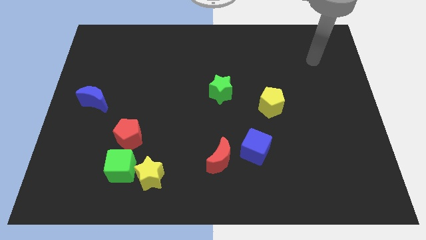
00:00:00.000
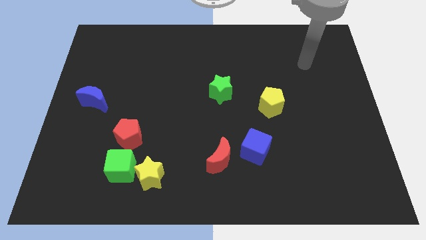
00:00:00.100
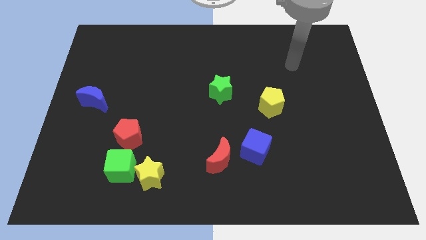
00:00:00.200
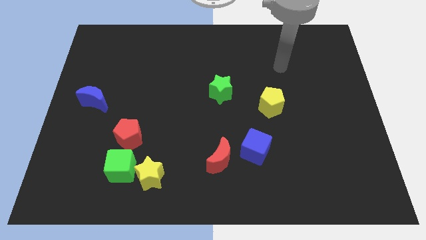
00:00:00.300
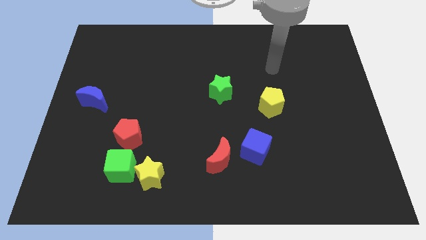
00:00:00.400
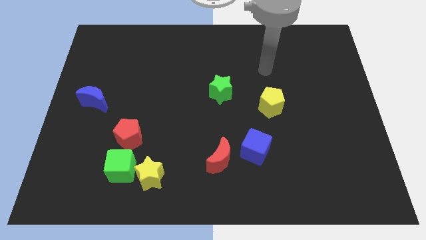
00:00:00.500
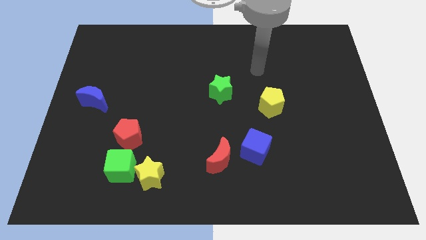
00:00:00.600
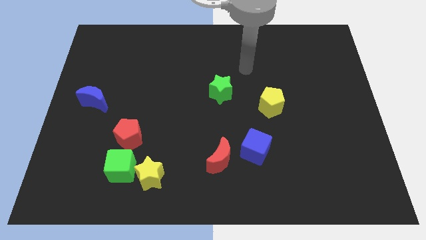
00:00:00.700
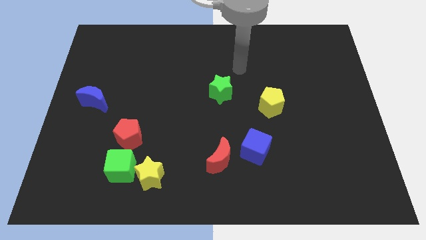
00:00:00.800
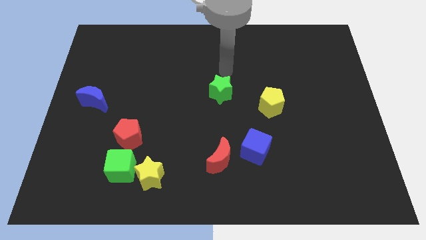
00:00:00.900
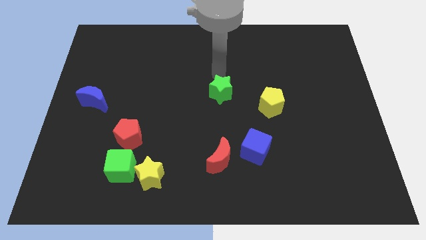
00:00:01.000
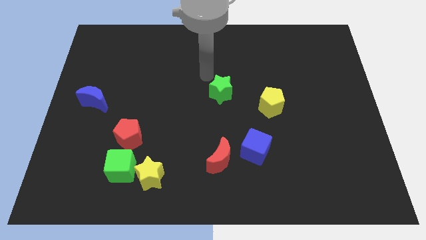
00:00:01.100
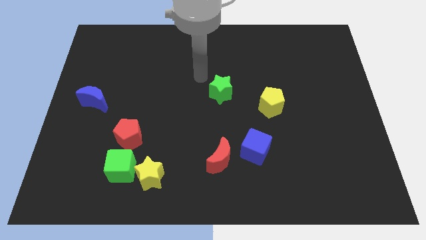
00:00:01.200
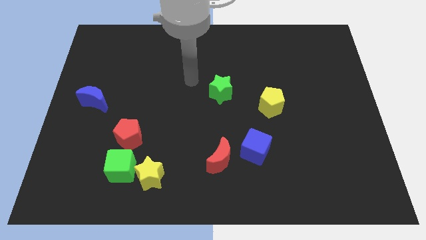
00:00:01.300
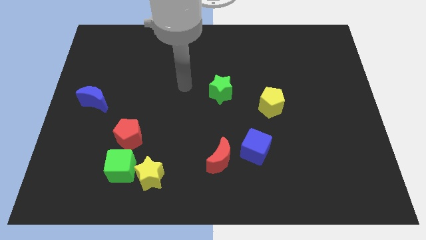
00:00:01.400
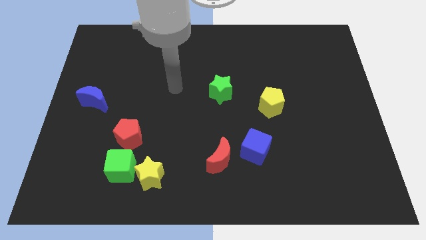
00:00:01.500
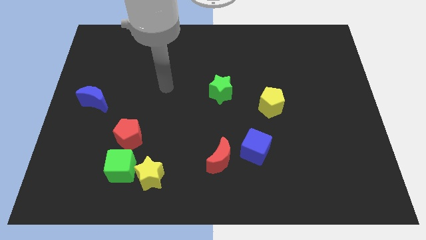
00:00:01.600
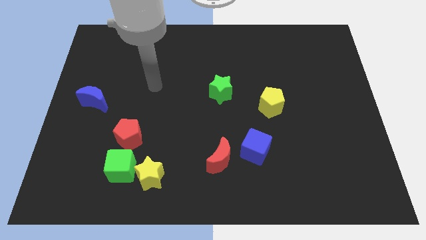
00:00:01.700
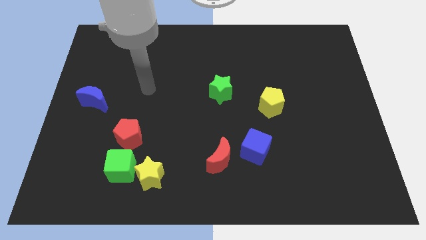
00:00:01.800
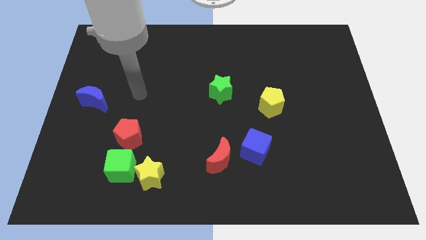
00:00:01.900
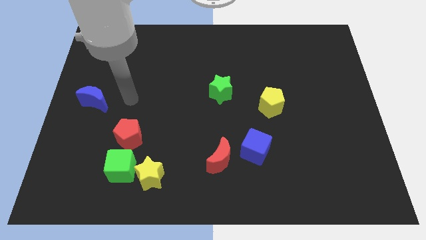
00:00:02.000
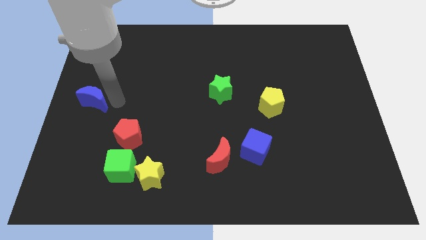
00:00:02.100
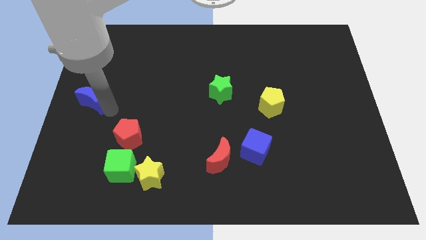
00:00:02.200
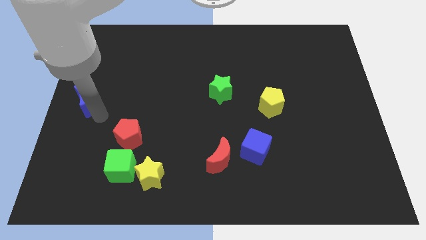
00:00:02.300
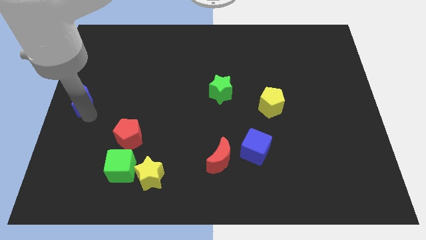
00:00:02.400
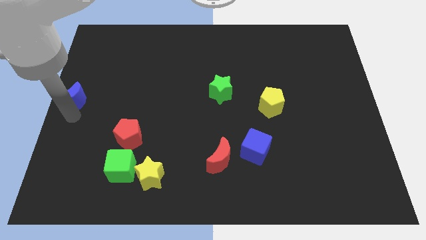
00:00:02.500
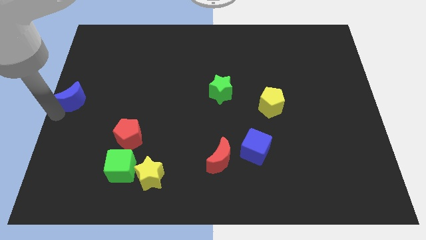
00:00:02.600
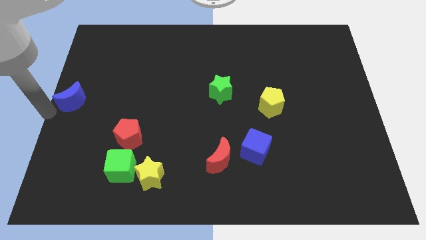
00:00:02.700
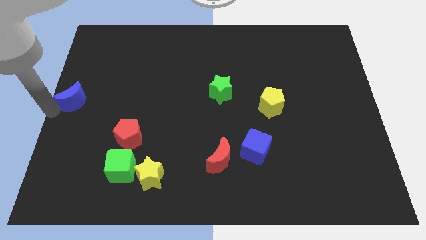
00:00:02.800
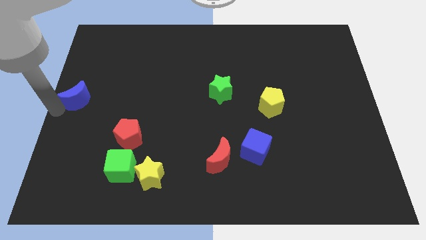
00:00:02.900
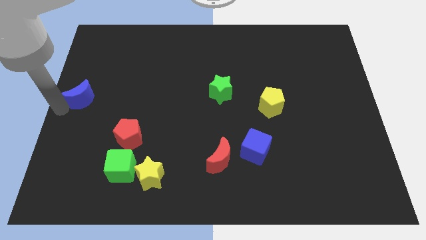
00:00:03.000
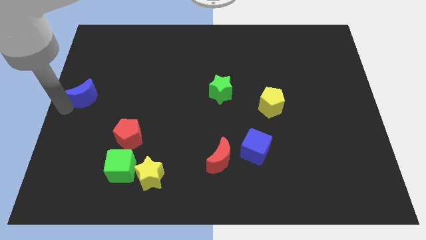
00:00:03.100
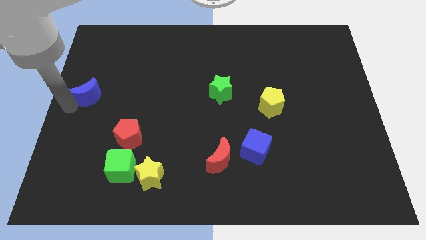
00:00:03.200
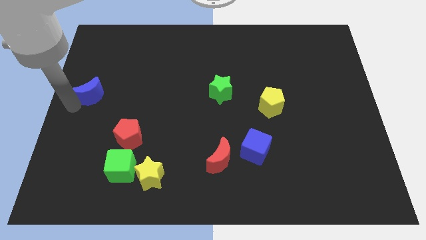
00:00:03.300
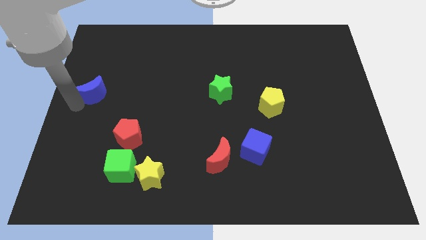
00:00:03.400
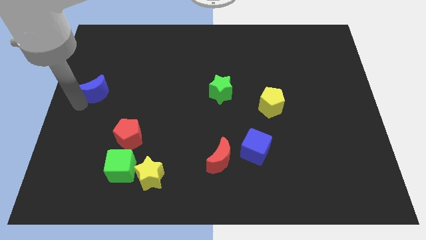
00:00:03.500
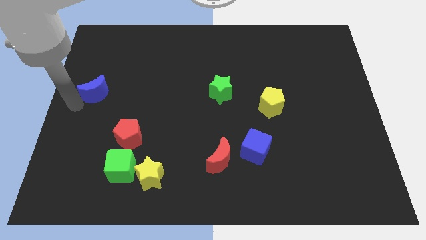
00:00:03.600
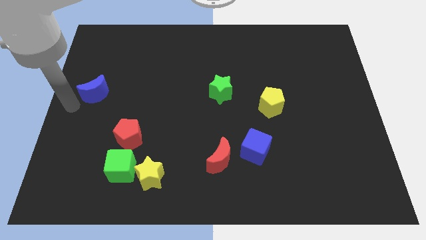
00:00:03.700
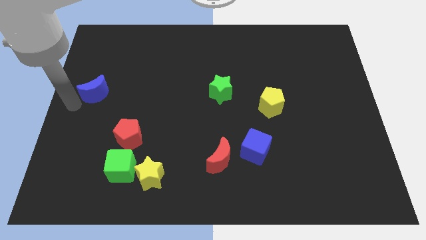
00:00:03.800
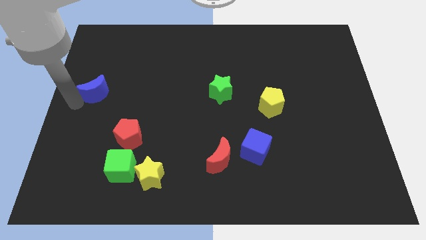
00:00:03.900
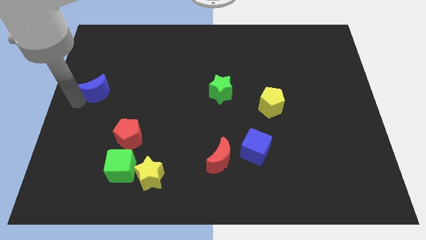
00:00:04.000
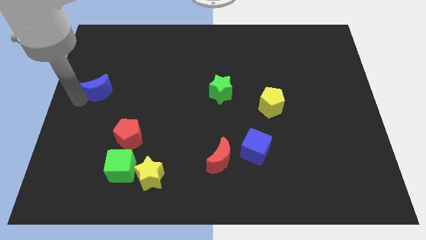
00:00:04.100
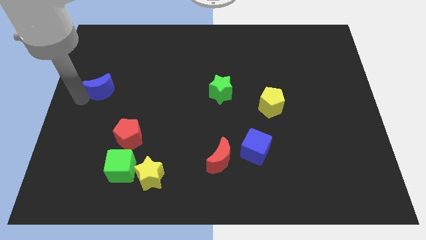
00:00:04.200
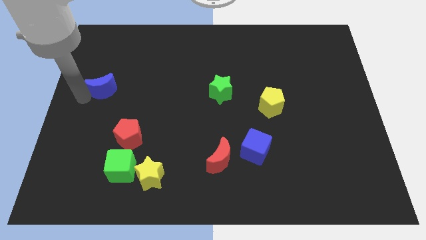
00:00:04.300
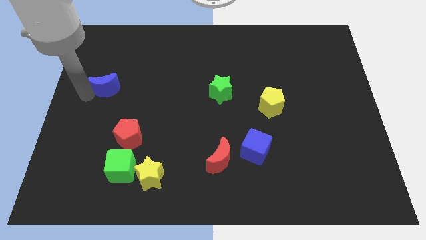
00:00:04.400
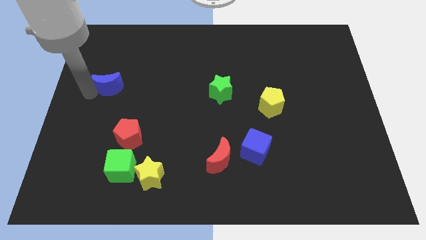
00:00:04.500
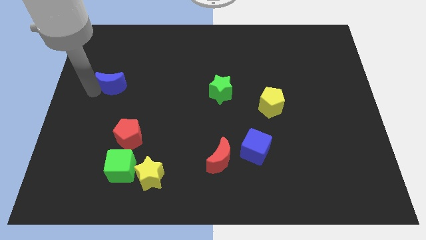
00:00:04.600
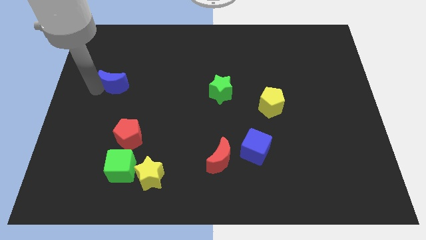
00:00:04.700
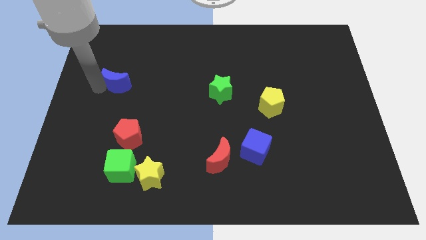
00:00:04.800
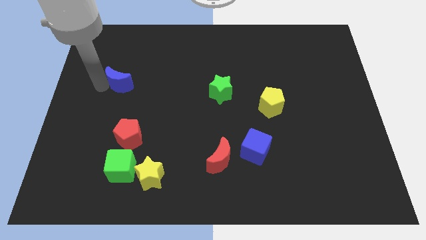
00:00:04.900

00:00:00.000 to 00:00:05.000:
move the blue moon upwards and to the right a little

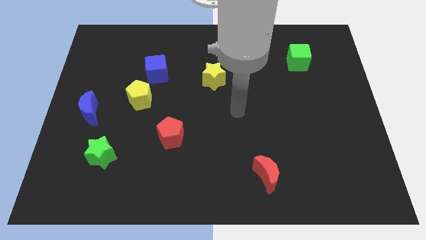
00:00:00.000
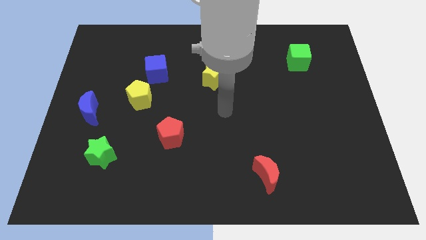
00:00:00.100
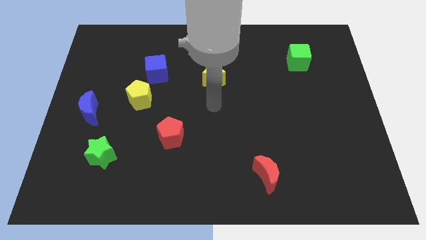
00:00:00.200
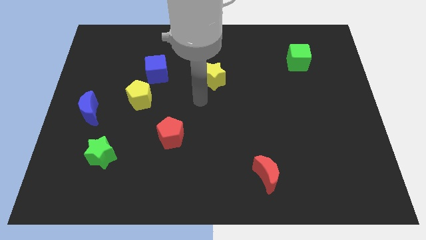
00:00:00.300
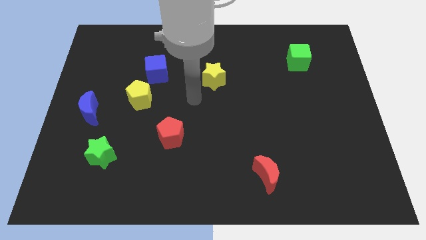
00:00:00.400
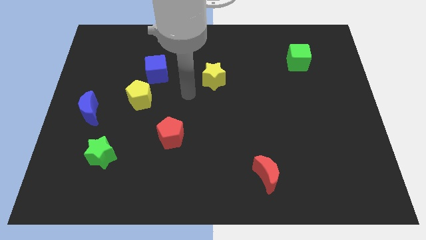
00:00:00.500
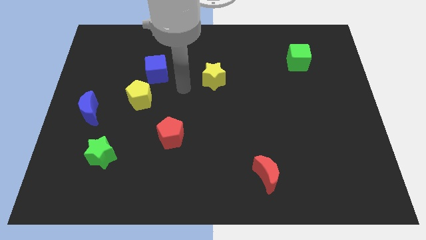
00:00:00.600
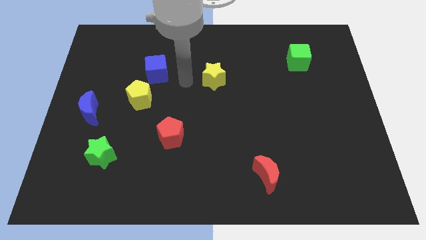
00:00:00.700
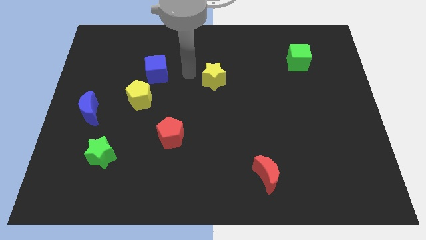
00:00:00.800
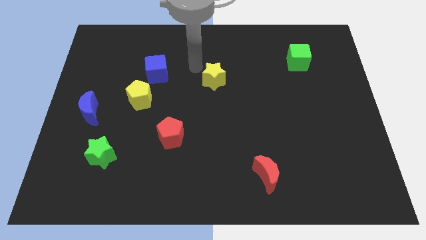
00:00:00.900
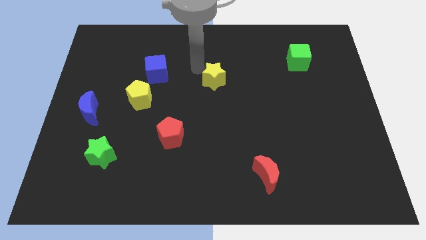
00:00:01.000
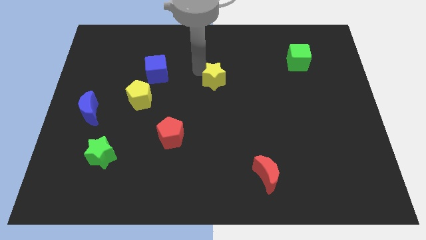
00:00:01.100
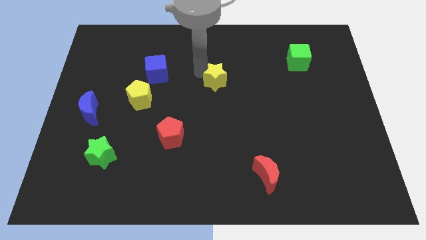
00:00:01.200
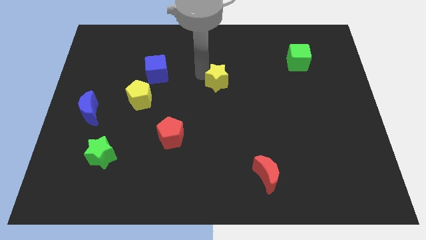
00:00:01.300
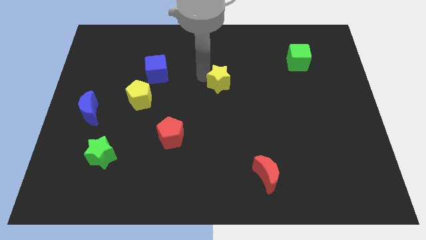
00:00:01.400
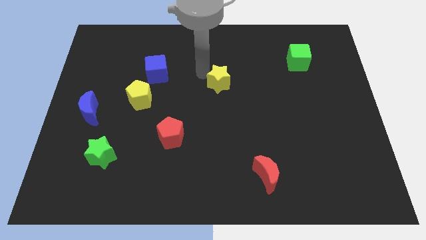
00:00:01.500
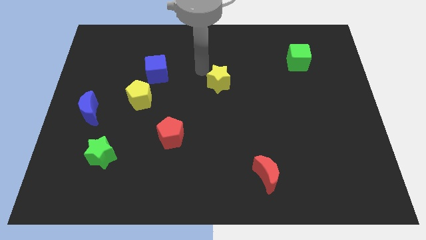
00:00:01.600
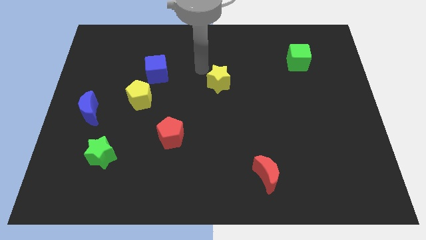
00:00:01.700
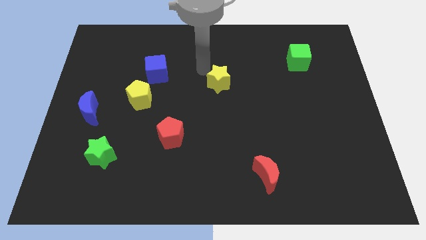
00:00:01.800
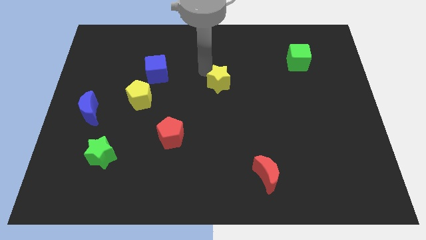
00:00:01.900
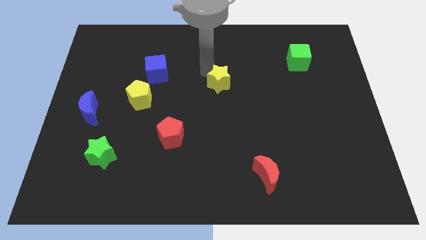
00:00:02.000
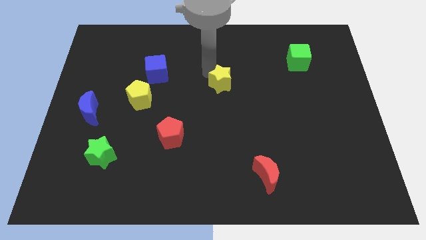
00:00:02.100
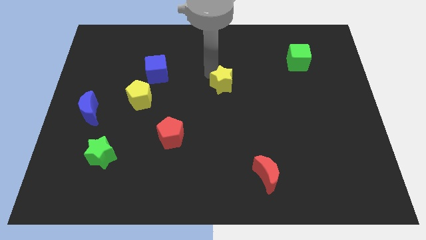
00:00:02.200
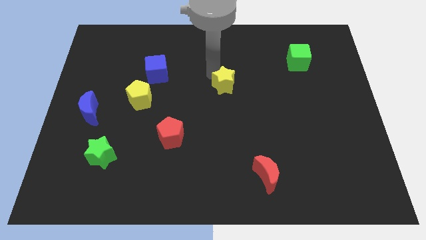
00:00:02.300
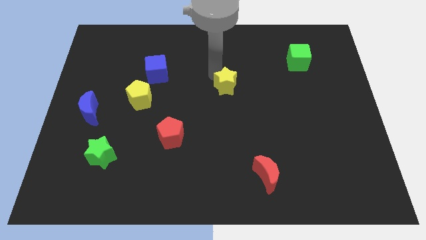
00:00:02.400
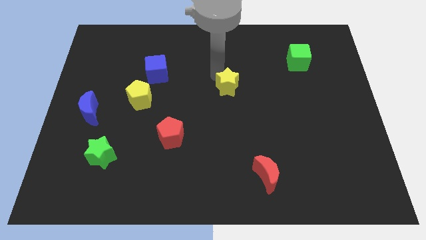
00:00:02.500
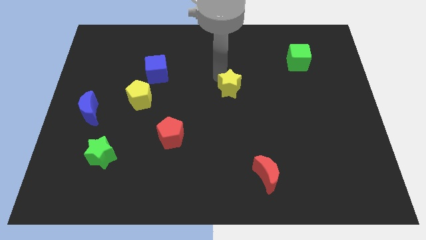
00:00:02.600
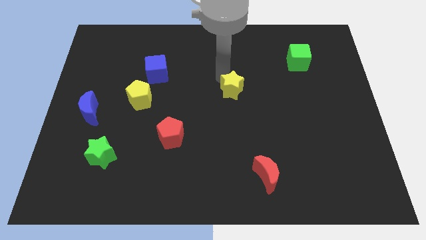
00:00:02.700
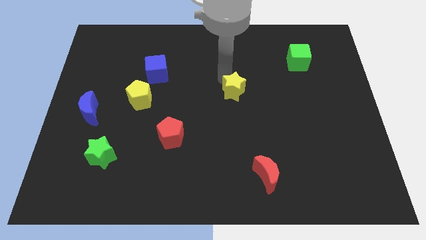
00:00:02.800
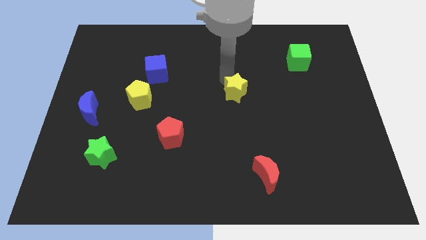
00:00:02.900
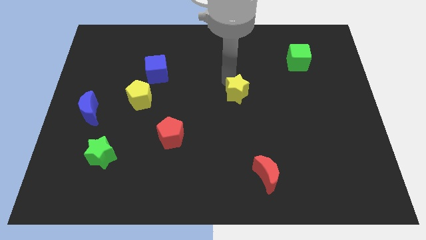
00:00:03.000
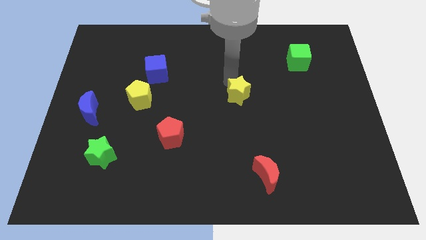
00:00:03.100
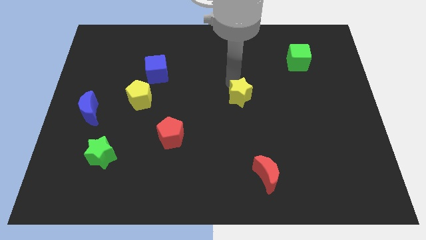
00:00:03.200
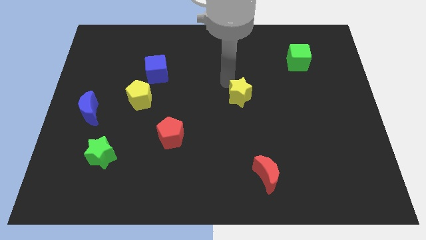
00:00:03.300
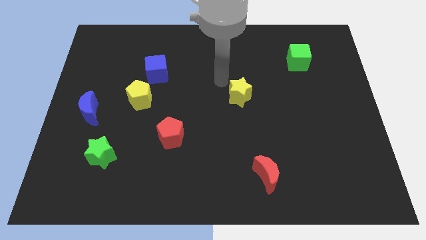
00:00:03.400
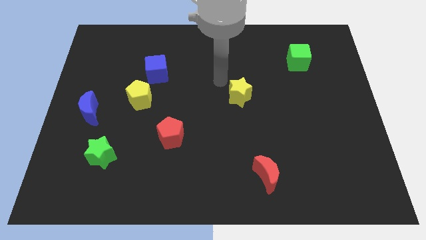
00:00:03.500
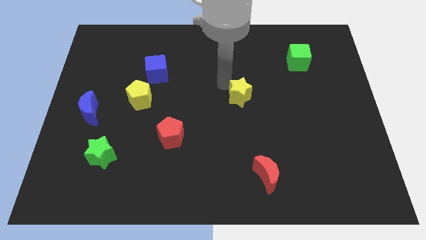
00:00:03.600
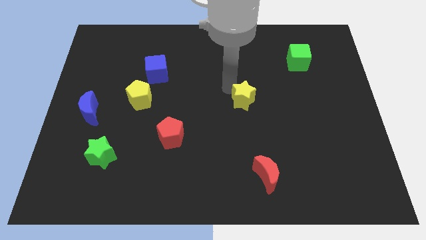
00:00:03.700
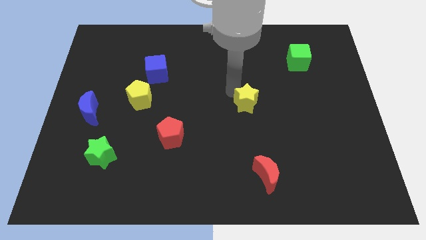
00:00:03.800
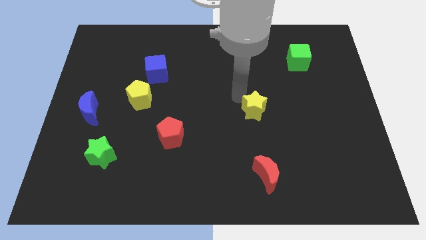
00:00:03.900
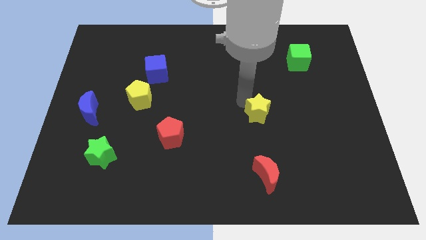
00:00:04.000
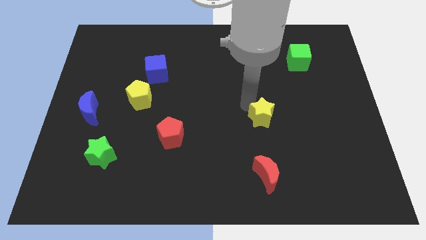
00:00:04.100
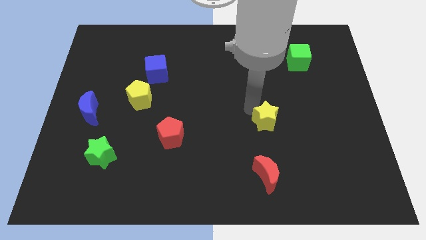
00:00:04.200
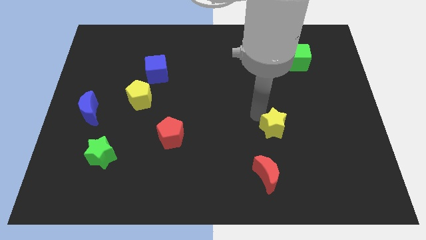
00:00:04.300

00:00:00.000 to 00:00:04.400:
move the yellow star downwards and right diagonally
